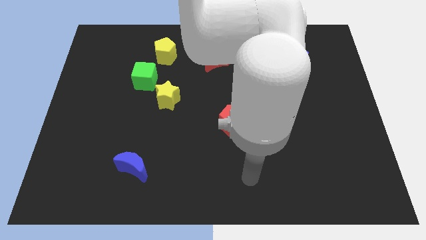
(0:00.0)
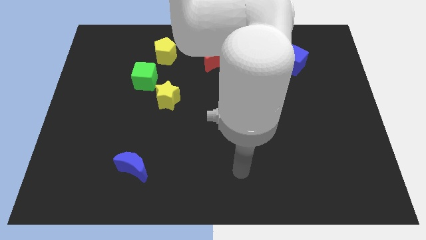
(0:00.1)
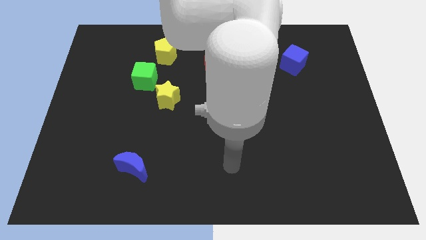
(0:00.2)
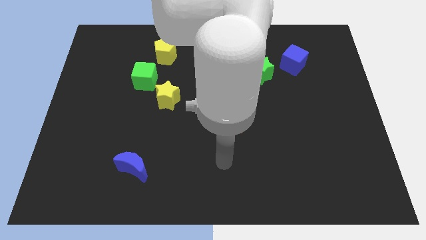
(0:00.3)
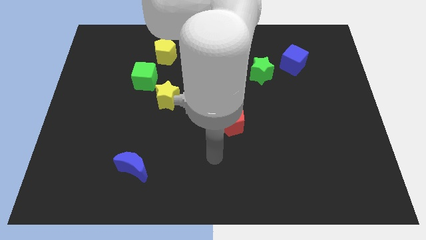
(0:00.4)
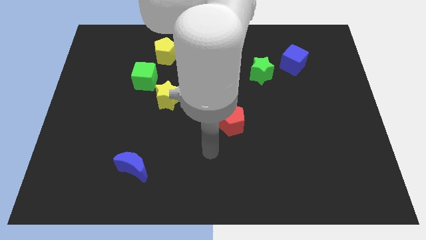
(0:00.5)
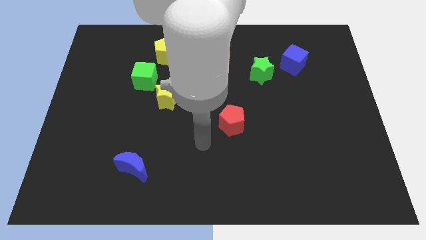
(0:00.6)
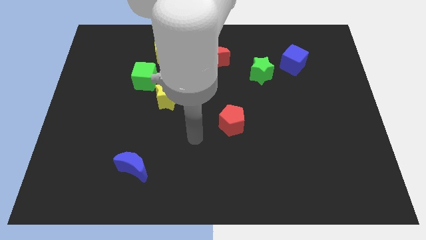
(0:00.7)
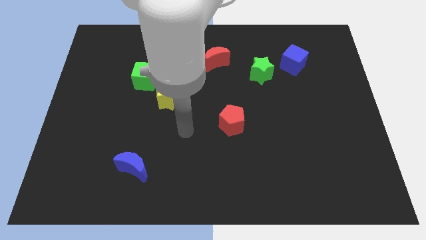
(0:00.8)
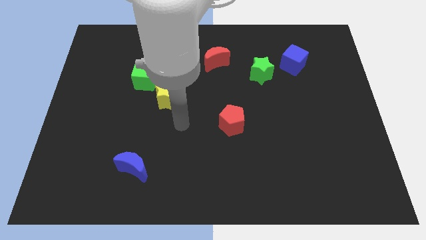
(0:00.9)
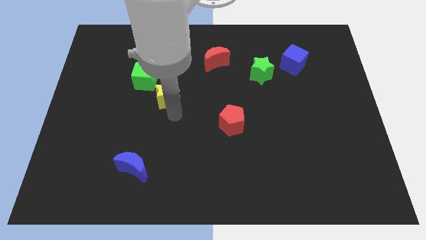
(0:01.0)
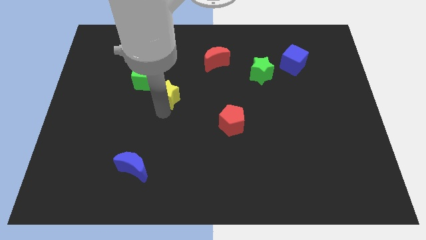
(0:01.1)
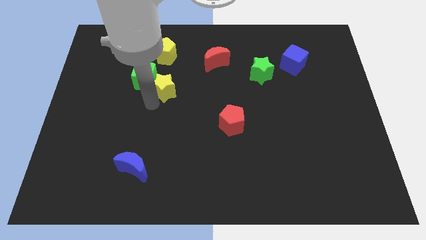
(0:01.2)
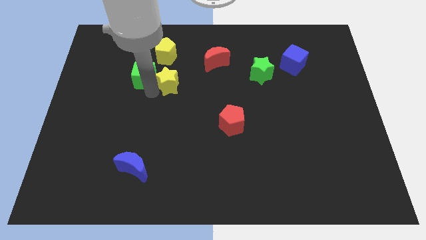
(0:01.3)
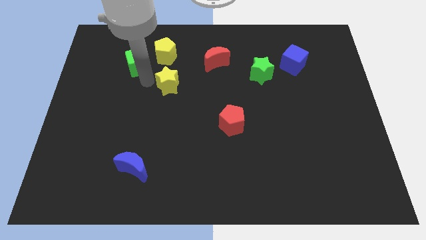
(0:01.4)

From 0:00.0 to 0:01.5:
separate the yellow star from the green cube

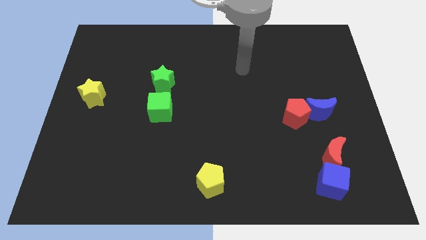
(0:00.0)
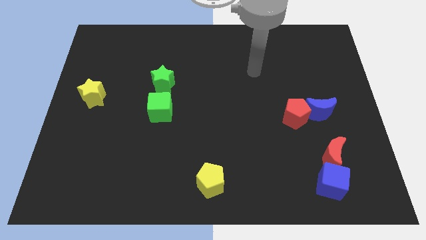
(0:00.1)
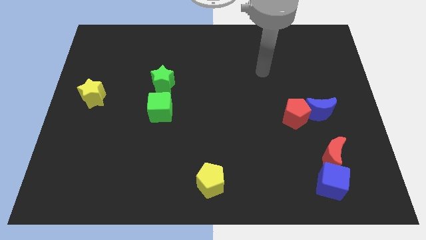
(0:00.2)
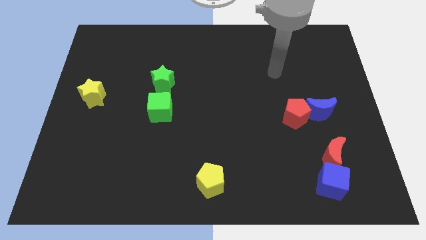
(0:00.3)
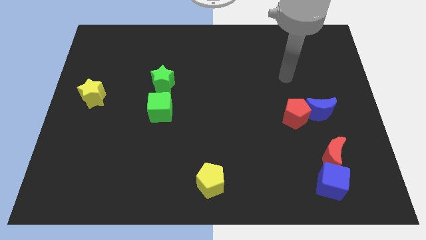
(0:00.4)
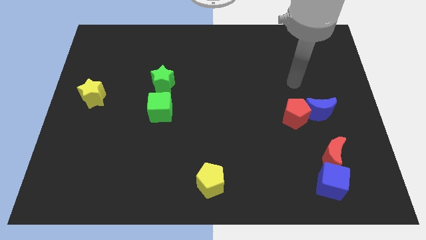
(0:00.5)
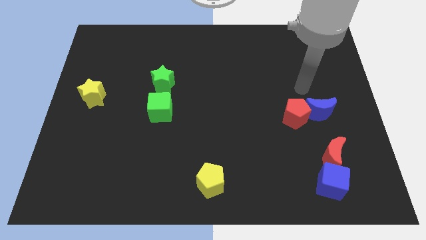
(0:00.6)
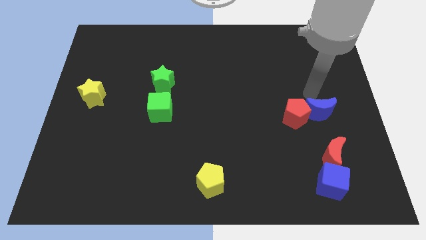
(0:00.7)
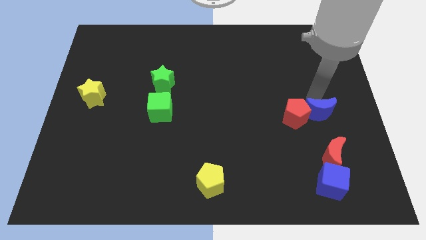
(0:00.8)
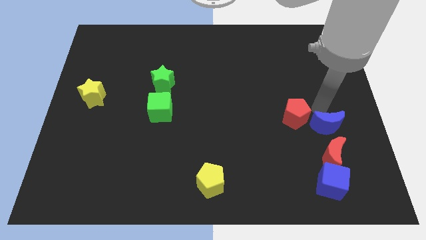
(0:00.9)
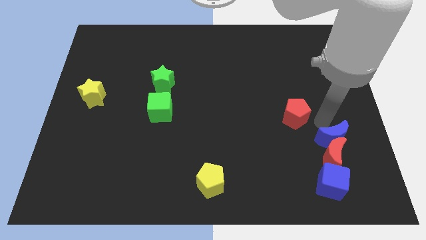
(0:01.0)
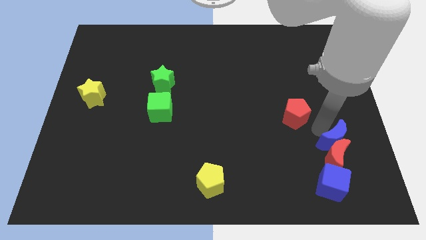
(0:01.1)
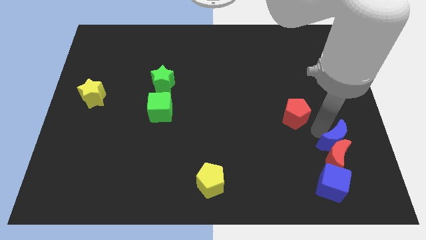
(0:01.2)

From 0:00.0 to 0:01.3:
move the red pentagon away from the blue moon

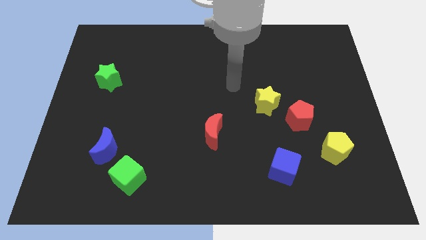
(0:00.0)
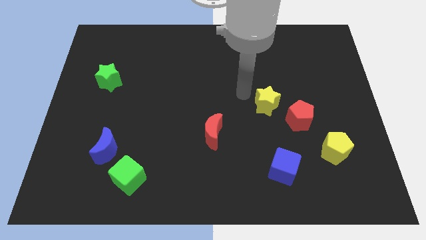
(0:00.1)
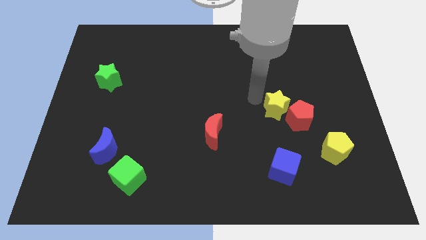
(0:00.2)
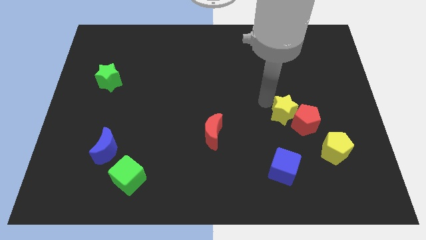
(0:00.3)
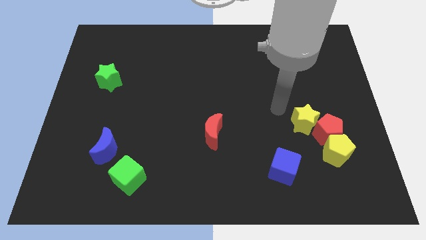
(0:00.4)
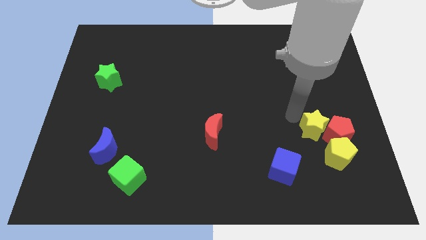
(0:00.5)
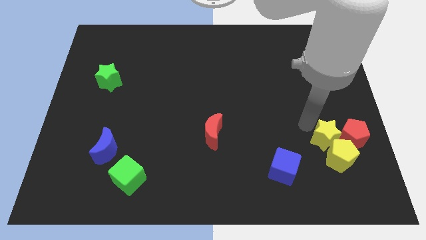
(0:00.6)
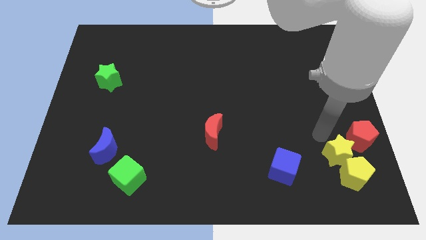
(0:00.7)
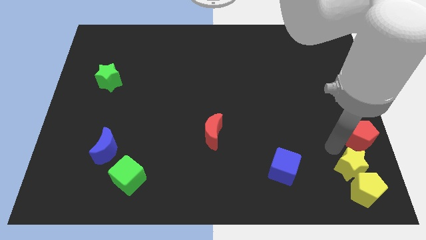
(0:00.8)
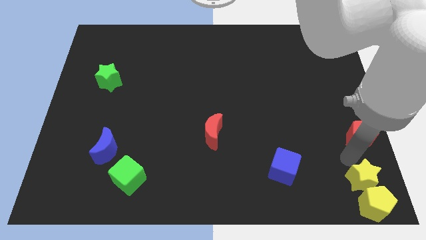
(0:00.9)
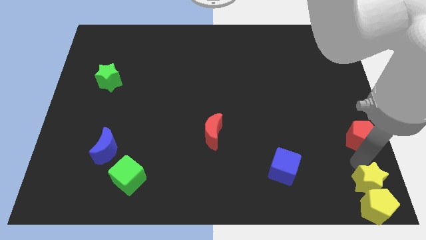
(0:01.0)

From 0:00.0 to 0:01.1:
pull the red pentagon apart from the yellow star

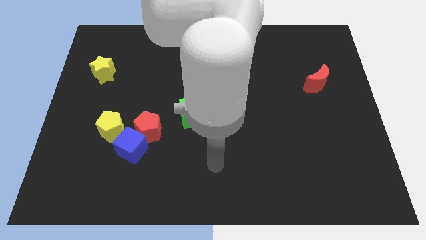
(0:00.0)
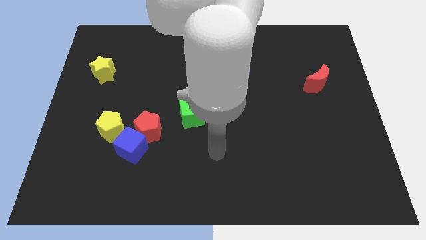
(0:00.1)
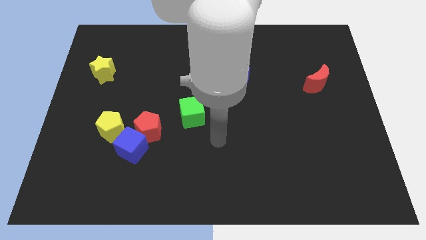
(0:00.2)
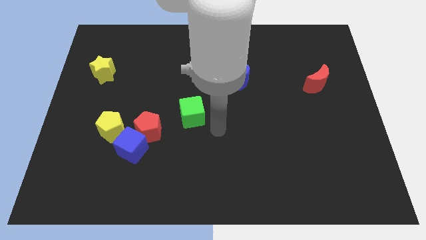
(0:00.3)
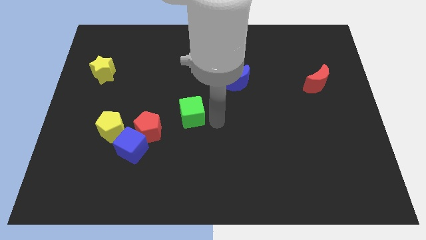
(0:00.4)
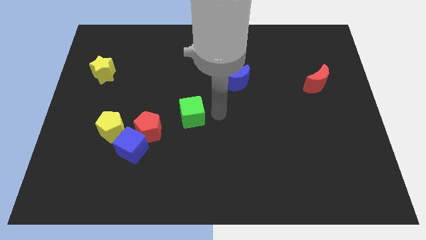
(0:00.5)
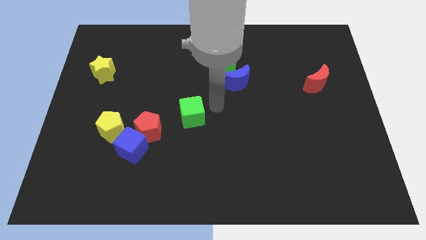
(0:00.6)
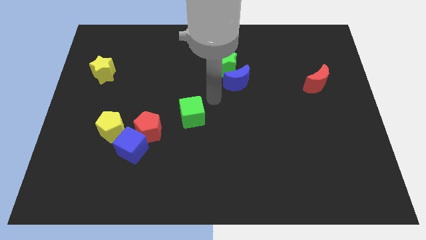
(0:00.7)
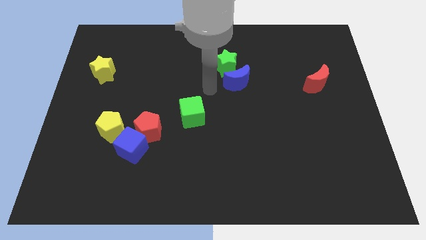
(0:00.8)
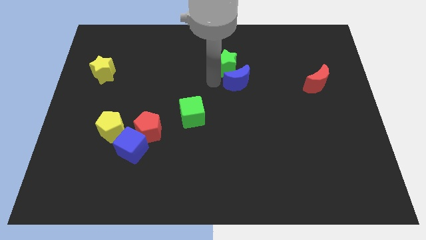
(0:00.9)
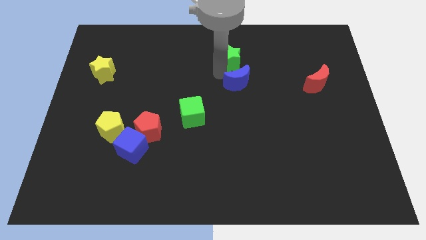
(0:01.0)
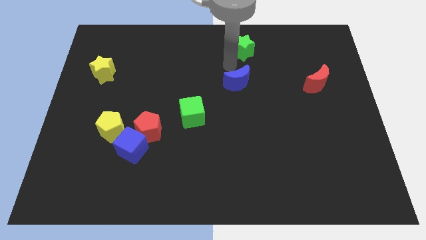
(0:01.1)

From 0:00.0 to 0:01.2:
pull the blue moon apart from the green star

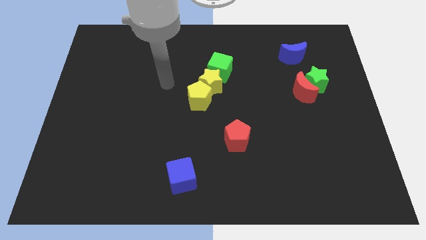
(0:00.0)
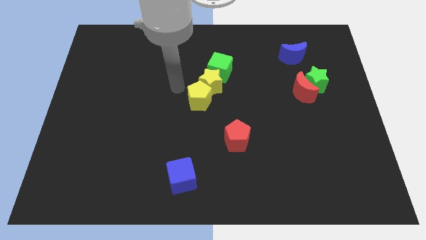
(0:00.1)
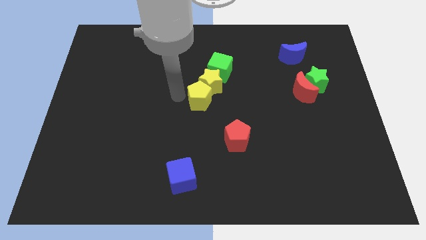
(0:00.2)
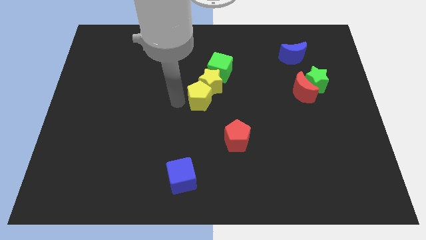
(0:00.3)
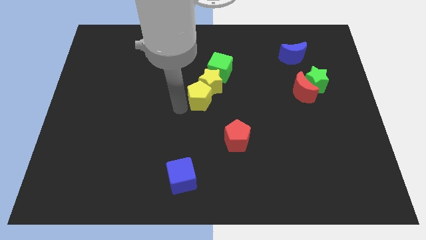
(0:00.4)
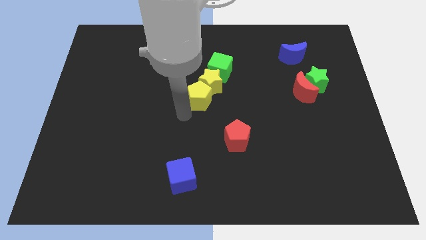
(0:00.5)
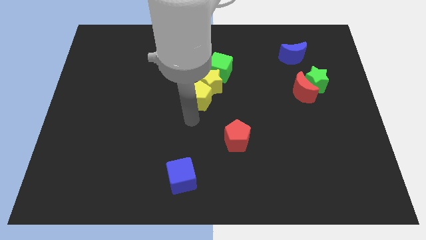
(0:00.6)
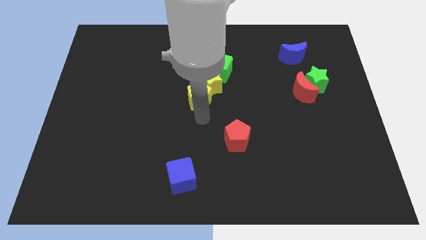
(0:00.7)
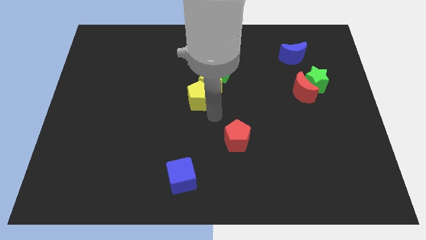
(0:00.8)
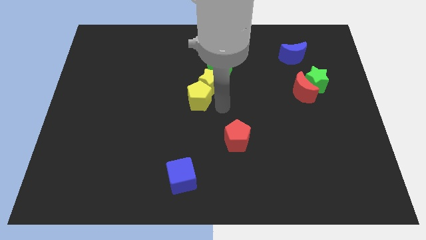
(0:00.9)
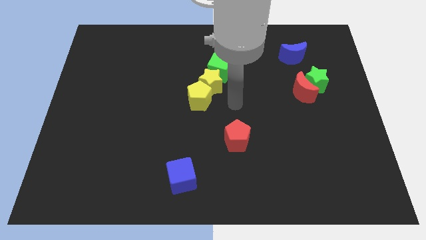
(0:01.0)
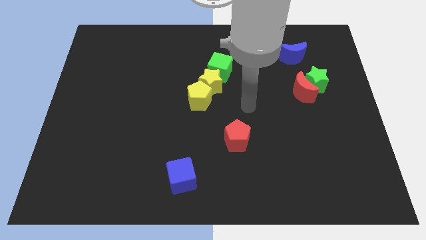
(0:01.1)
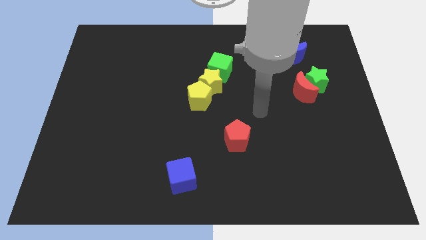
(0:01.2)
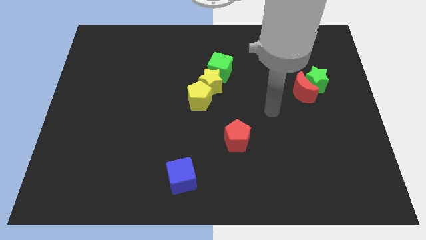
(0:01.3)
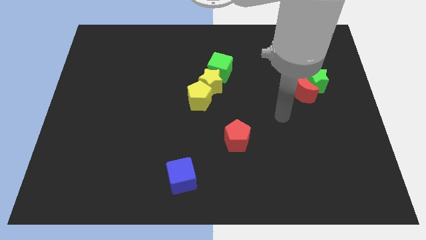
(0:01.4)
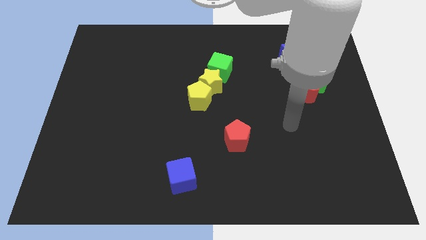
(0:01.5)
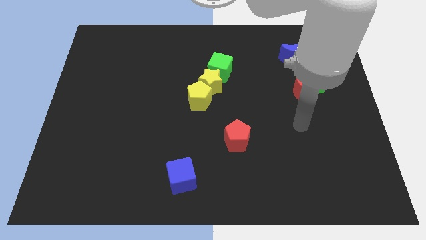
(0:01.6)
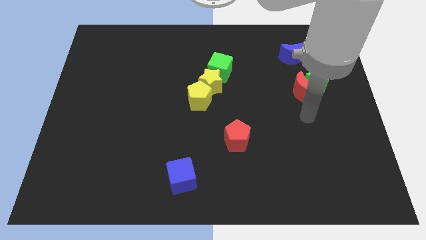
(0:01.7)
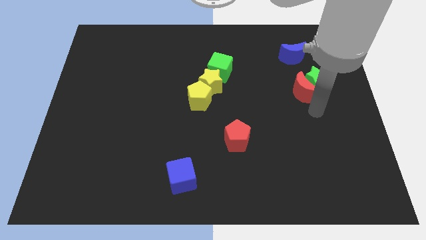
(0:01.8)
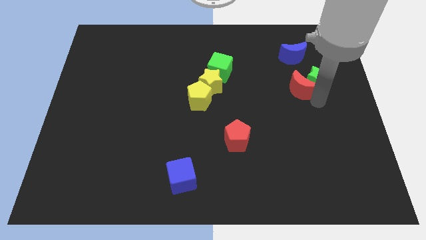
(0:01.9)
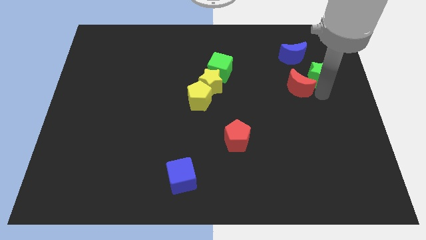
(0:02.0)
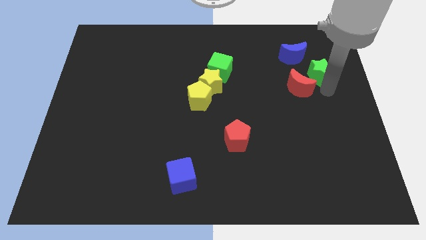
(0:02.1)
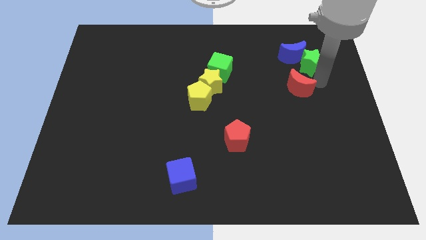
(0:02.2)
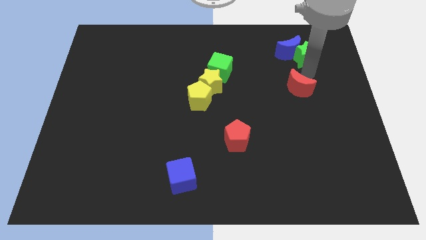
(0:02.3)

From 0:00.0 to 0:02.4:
separate the red moon from the green star

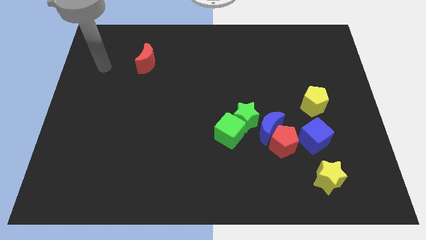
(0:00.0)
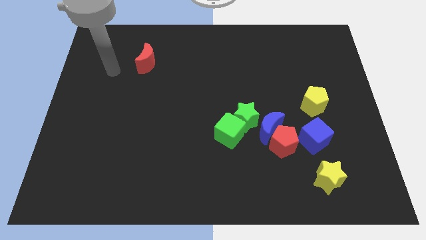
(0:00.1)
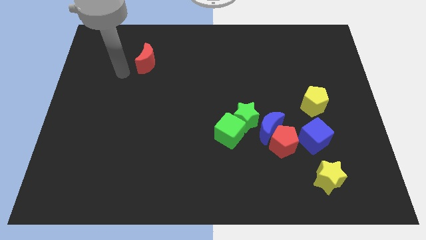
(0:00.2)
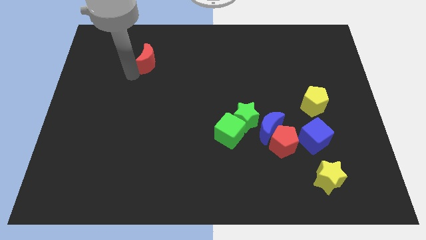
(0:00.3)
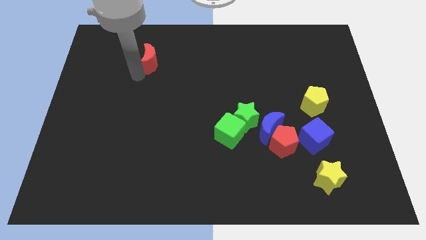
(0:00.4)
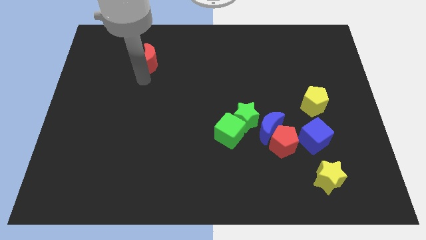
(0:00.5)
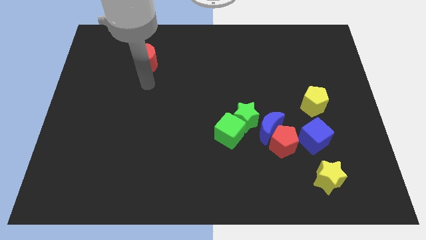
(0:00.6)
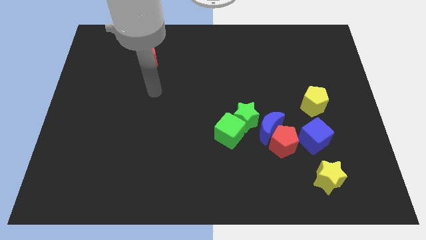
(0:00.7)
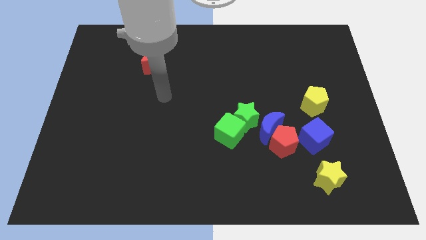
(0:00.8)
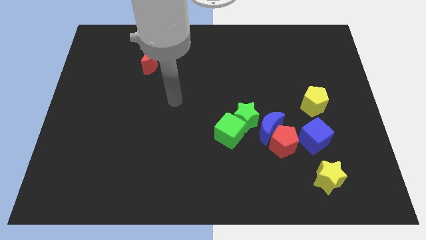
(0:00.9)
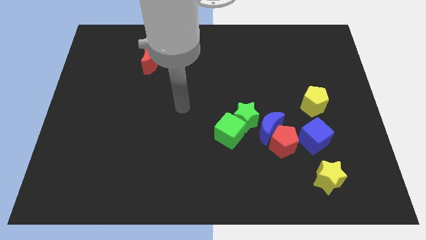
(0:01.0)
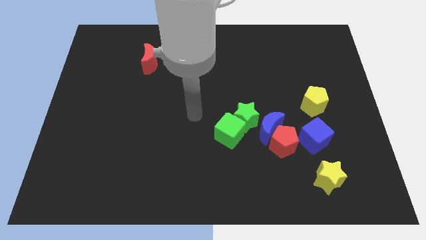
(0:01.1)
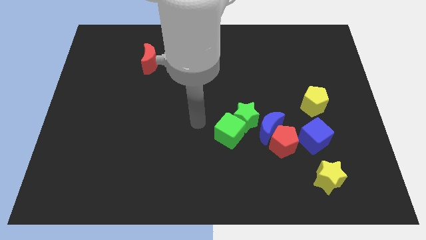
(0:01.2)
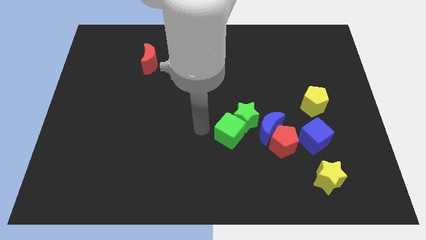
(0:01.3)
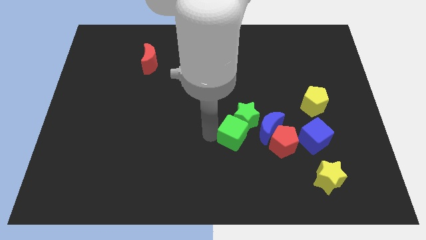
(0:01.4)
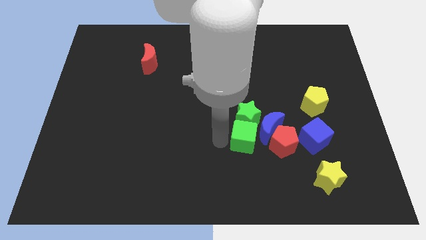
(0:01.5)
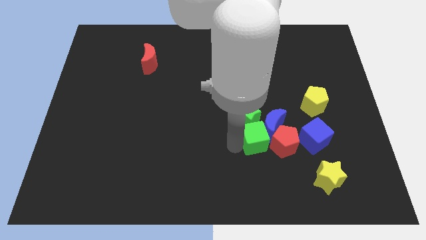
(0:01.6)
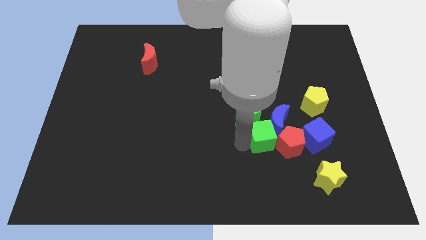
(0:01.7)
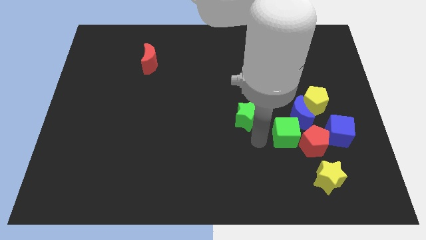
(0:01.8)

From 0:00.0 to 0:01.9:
separate the green star from the green cube and blue moon

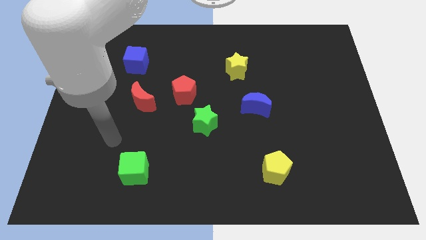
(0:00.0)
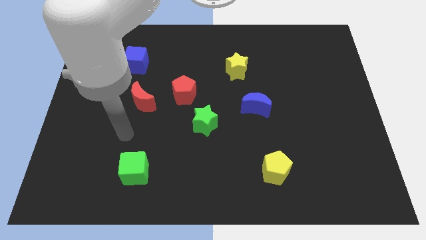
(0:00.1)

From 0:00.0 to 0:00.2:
pull the green star apart from the red pentagon
